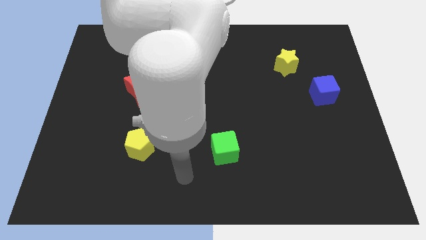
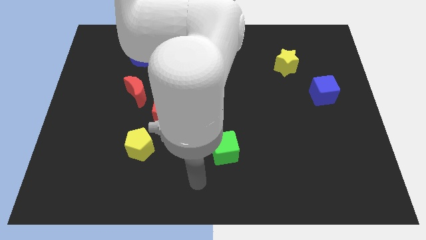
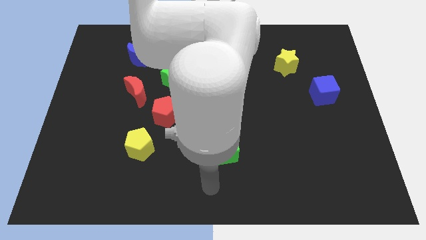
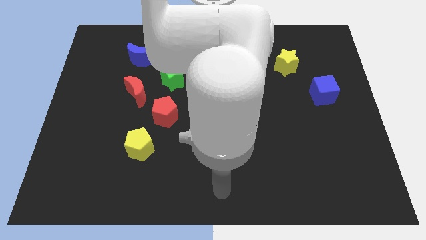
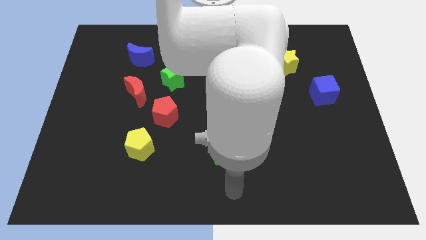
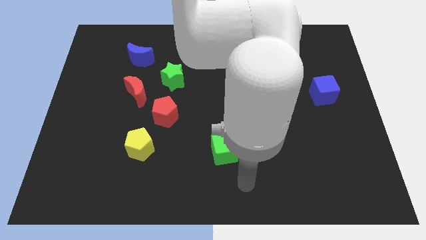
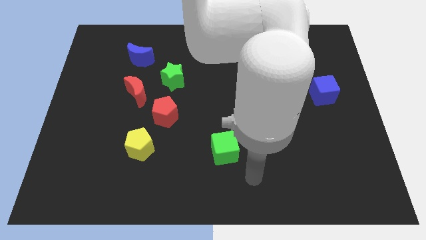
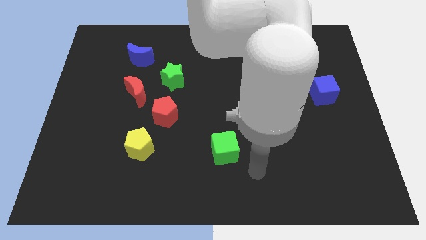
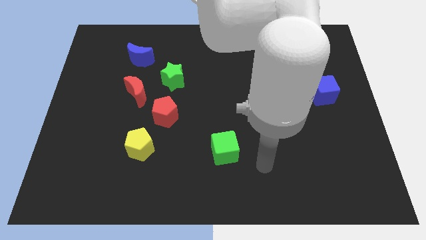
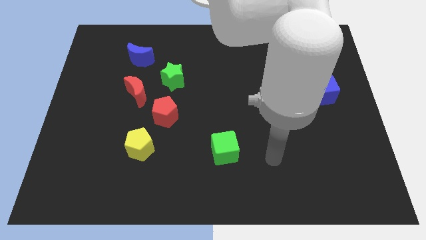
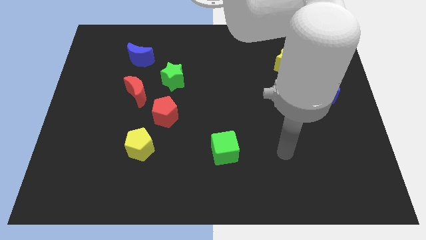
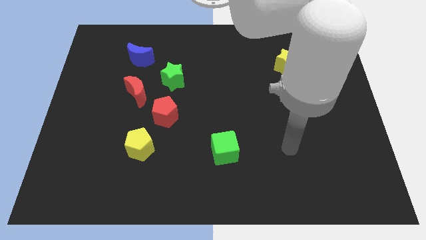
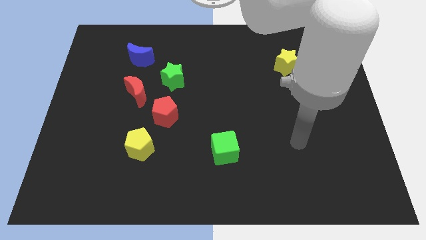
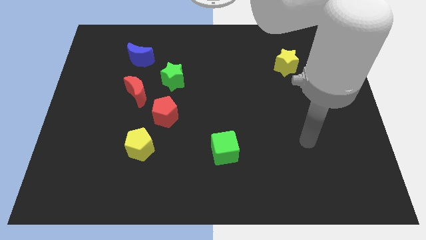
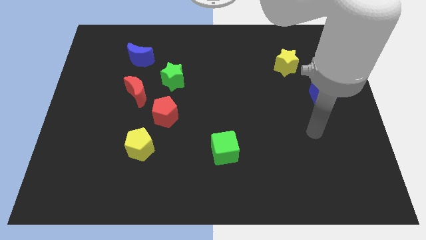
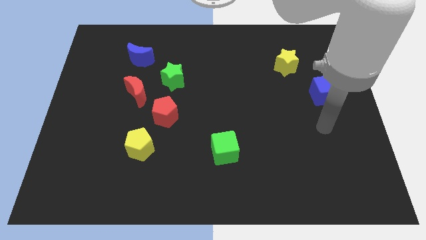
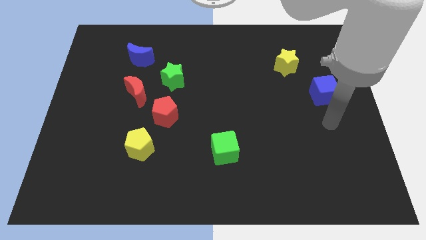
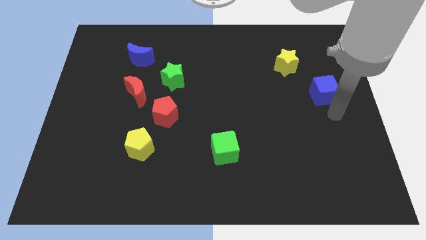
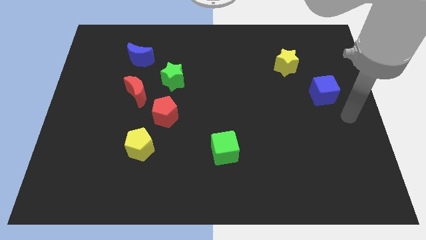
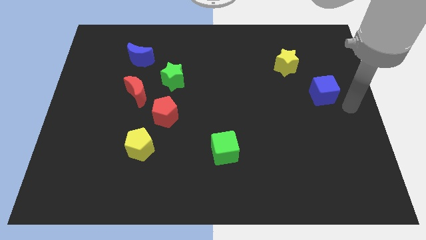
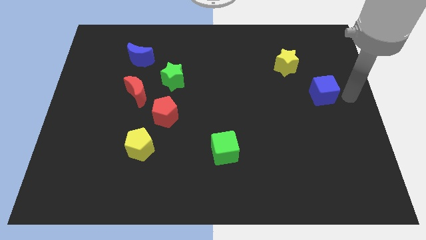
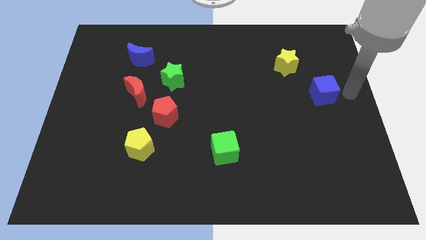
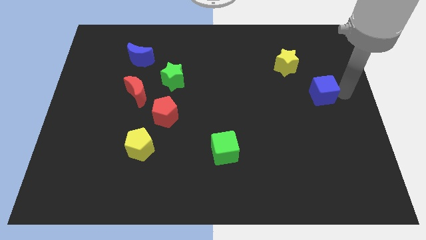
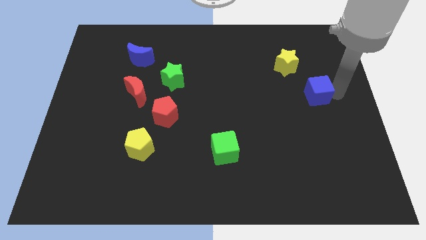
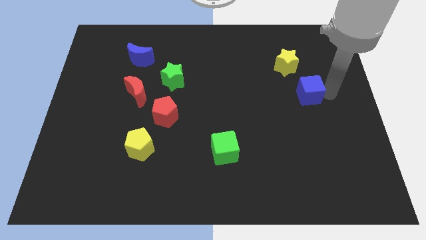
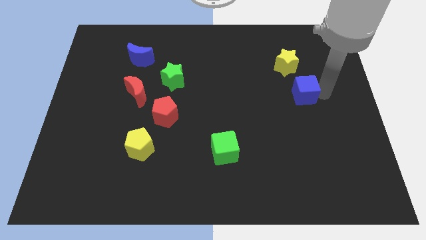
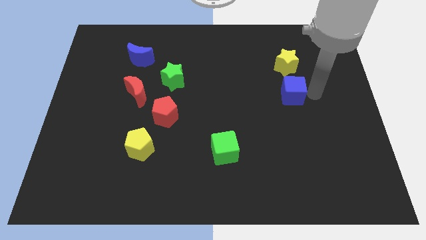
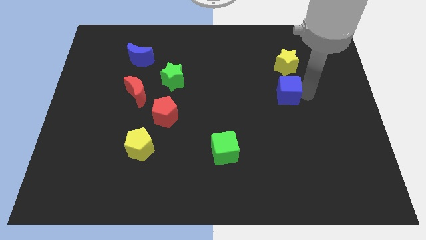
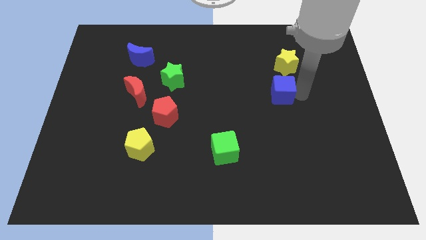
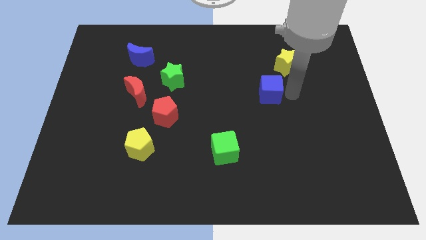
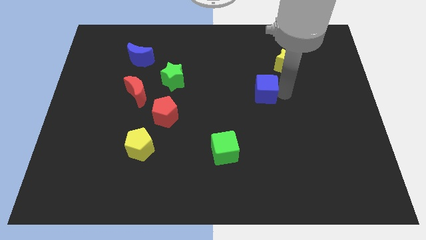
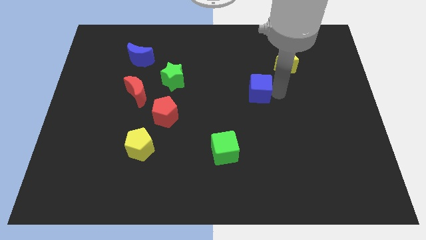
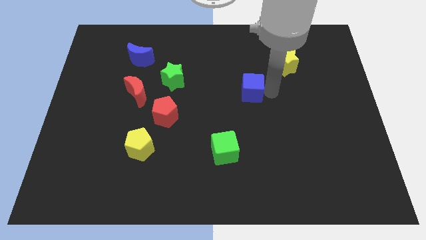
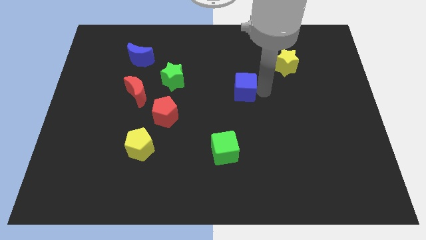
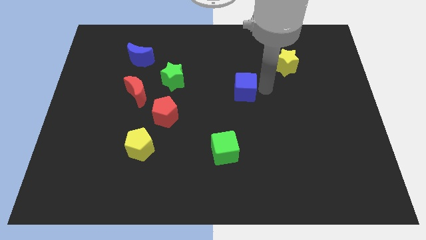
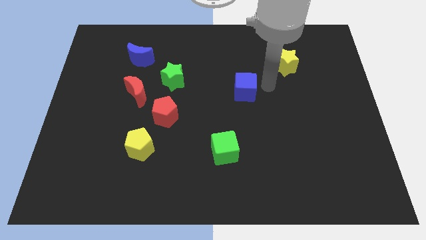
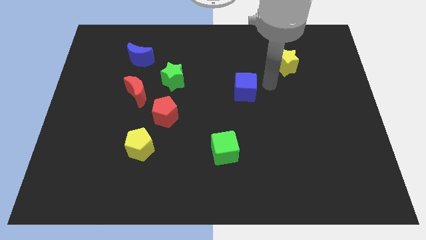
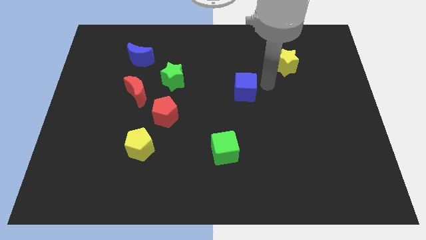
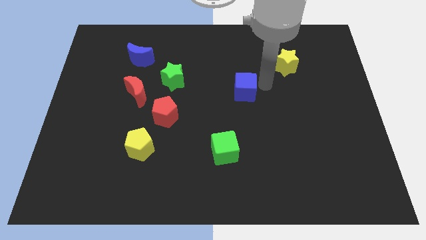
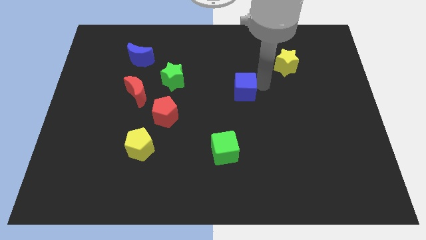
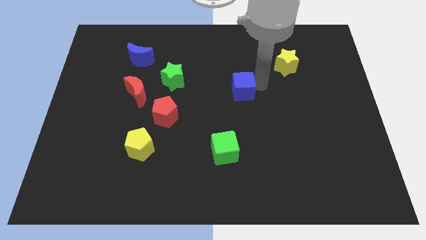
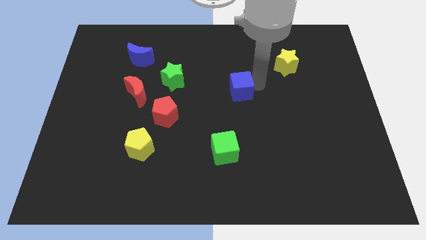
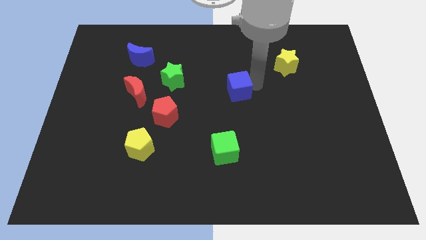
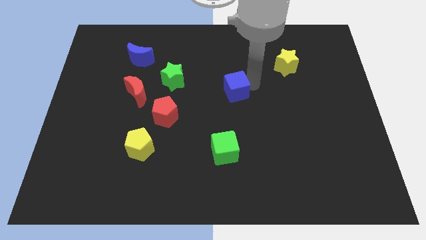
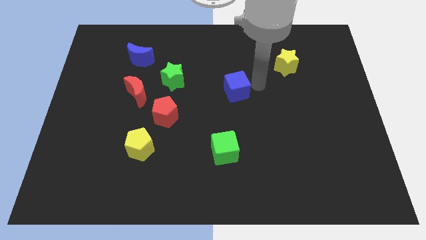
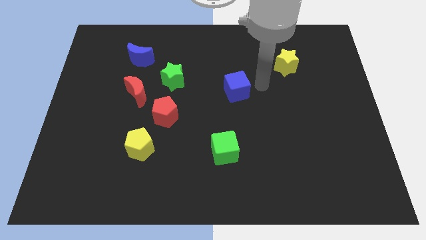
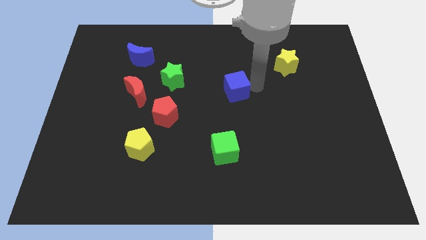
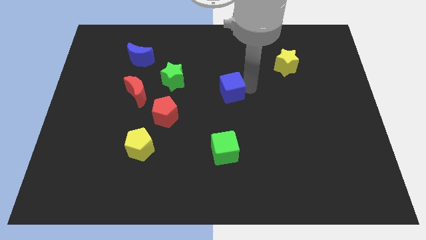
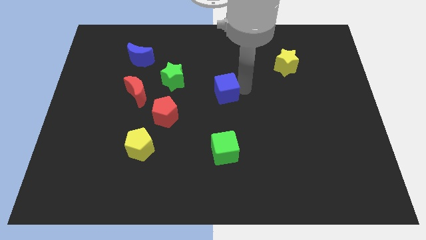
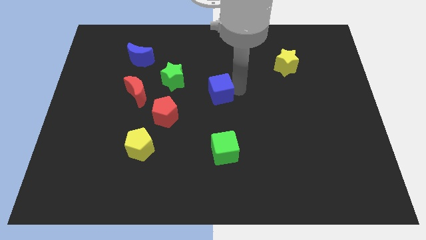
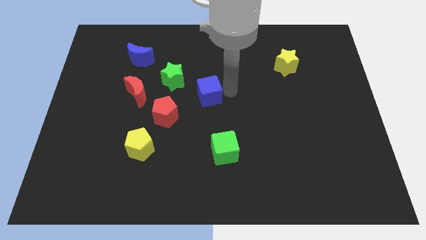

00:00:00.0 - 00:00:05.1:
move the blue cube diagonally up and to the right of the red pentagon

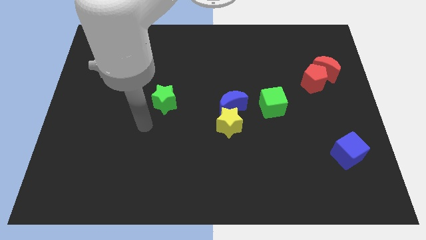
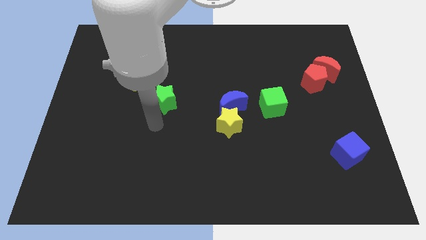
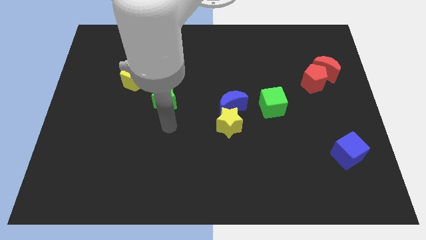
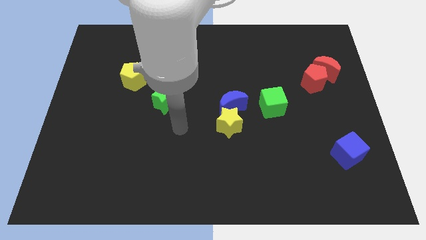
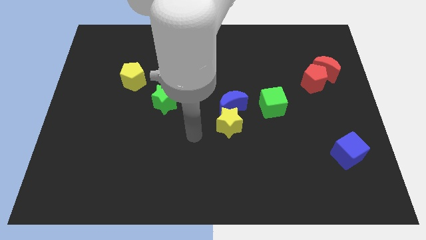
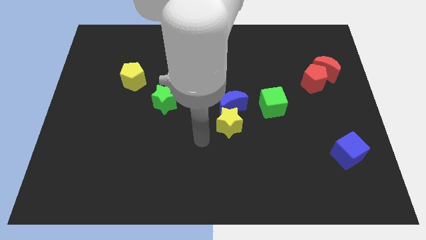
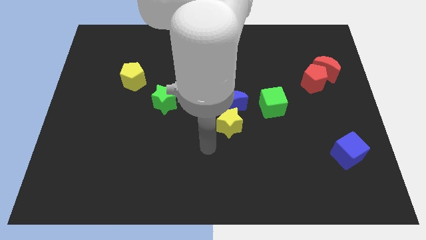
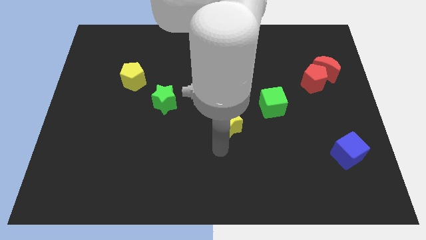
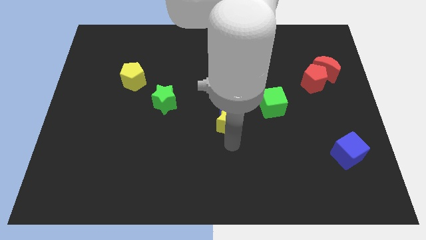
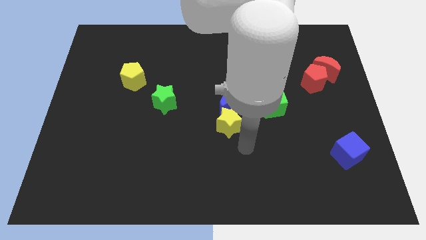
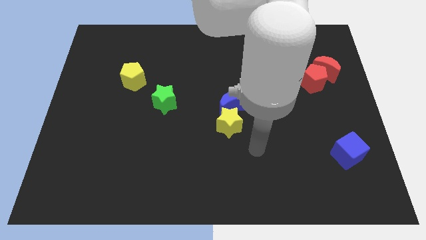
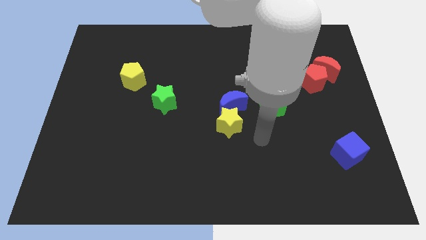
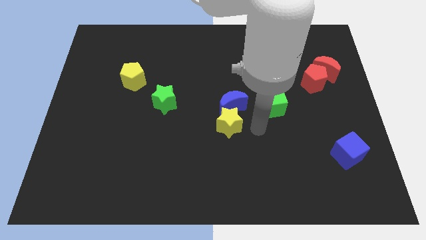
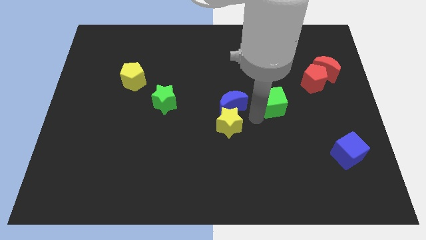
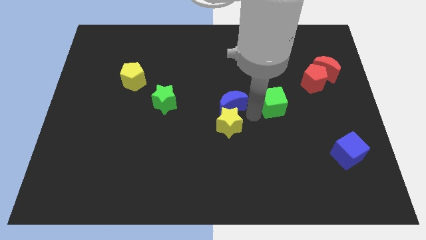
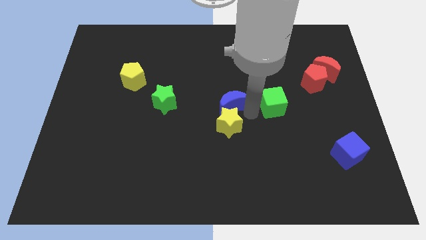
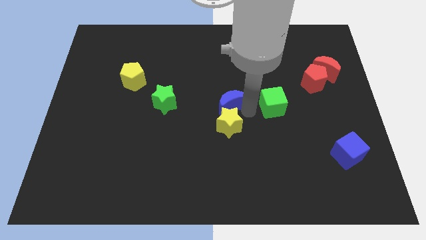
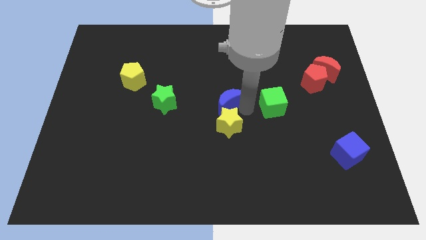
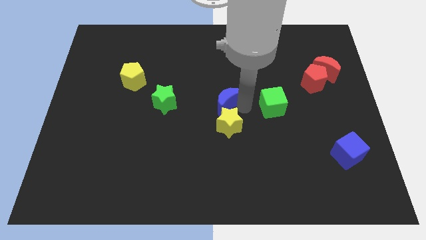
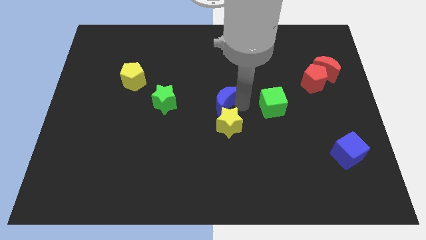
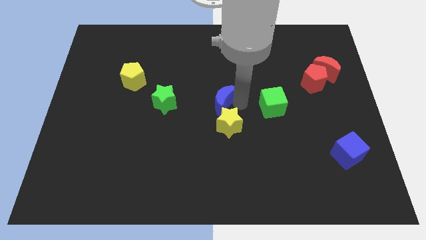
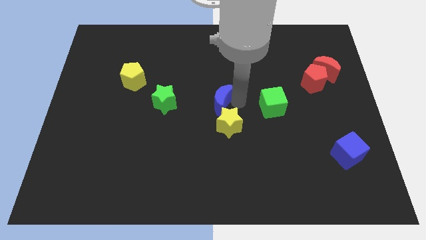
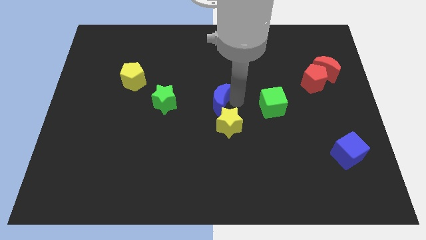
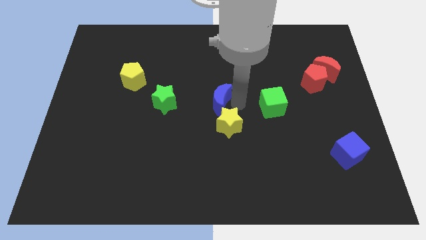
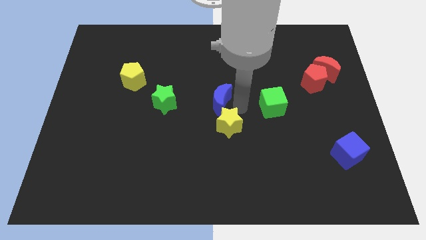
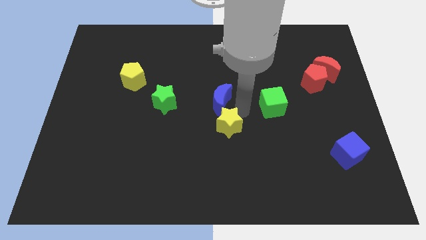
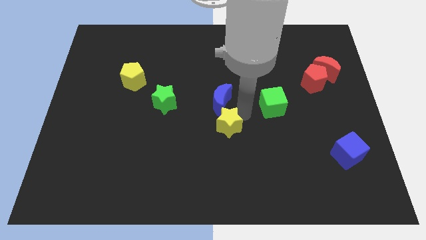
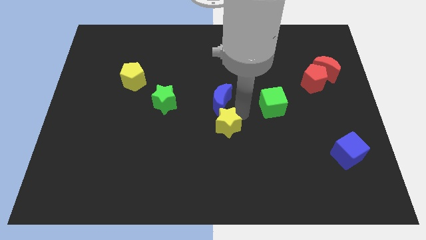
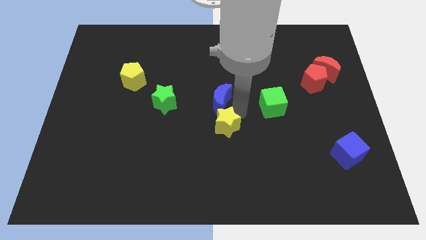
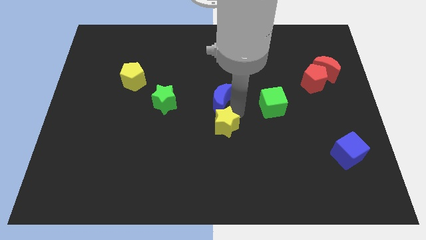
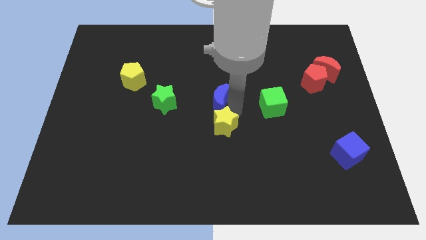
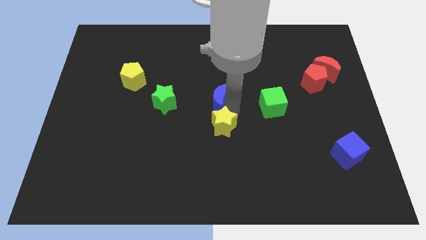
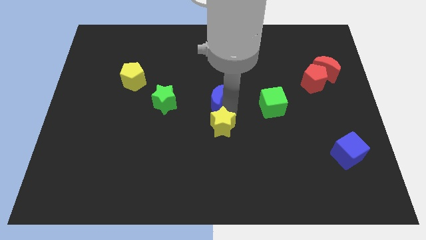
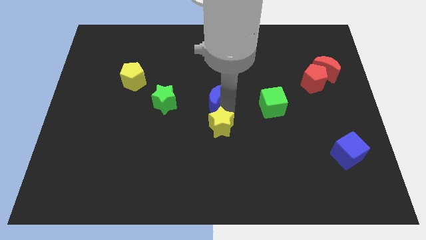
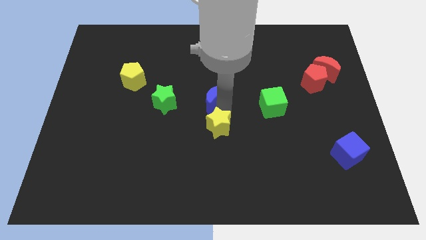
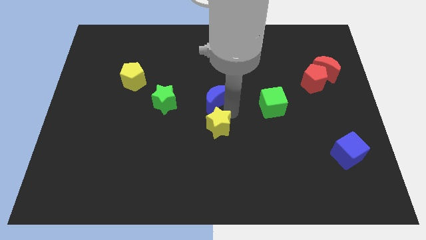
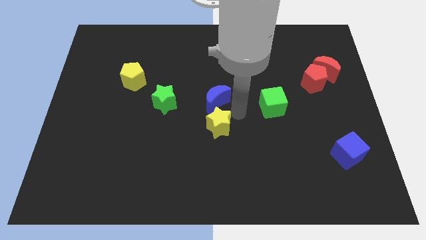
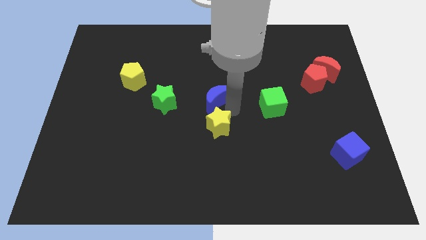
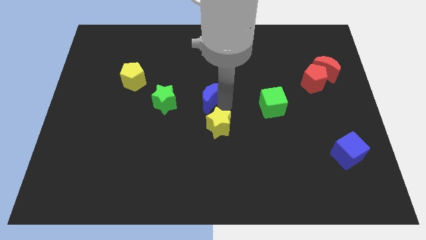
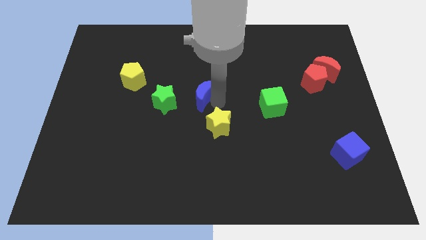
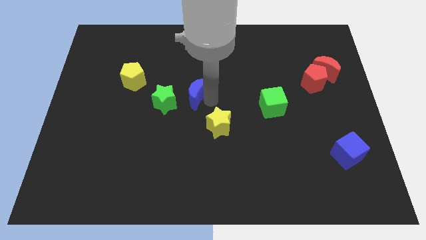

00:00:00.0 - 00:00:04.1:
push the blue moon diagonally up and to the right of the green star
